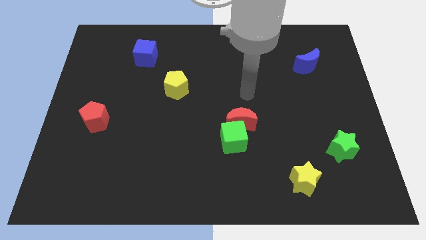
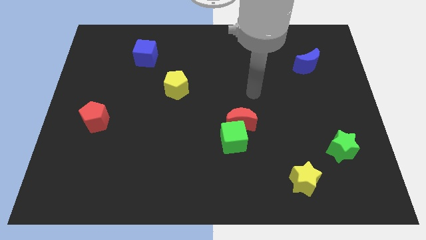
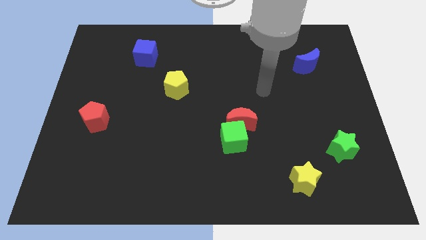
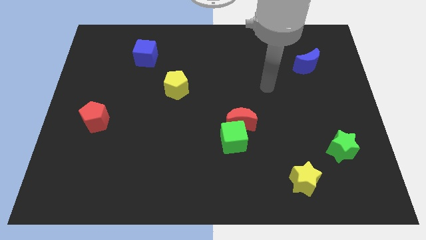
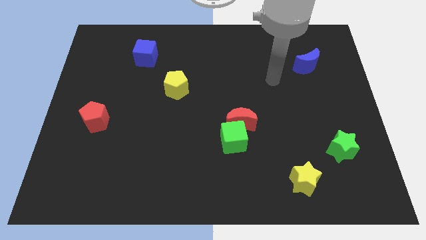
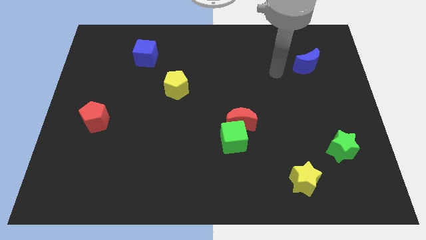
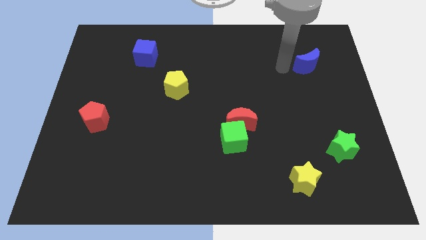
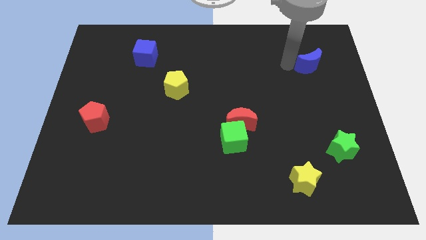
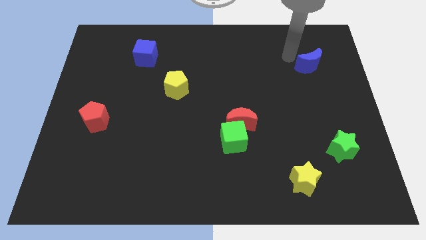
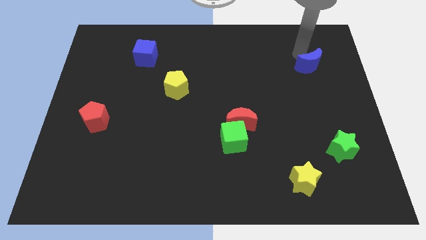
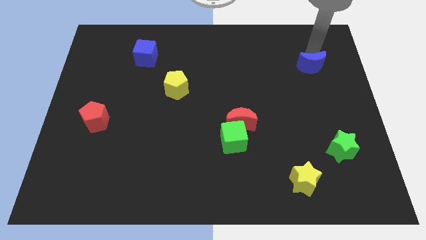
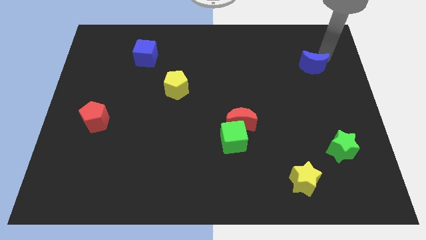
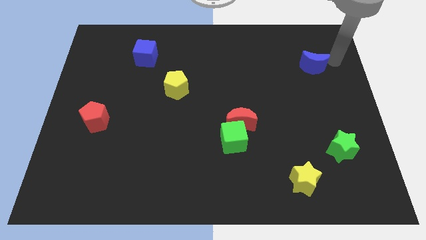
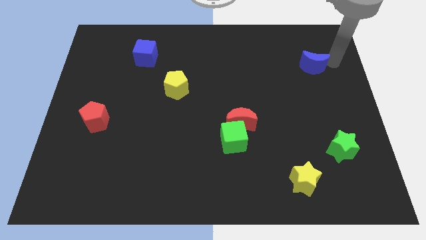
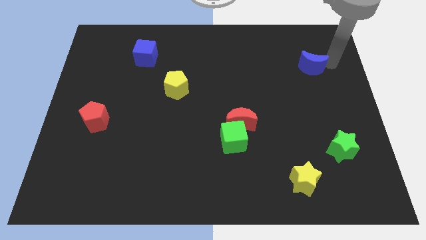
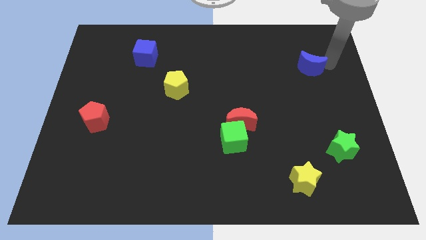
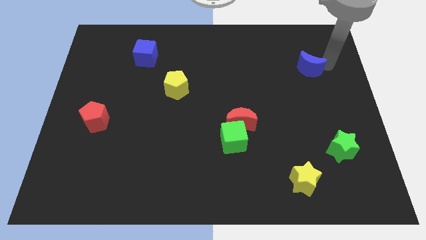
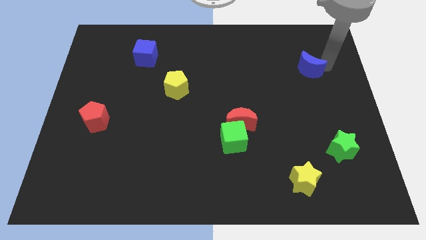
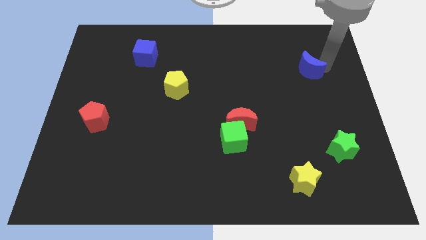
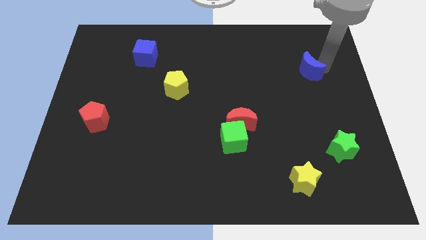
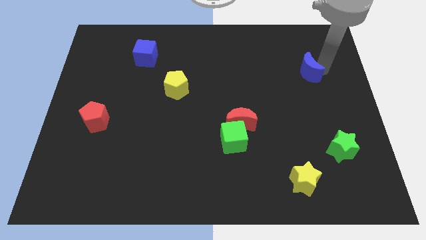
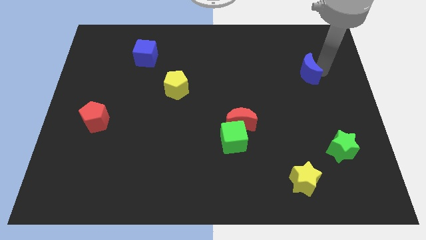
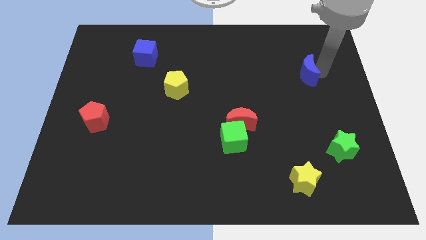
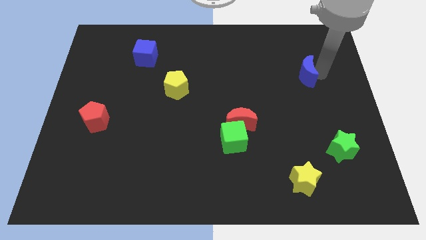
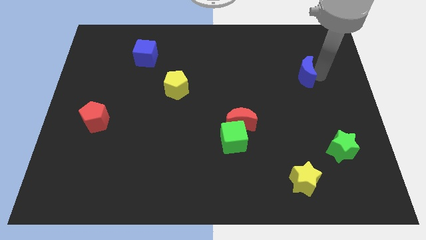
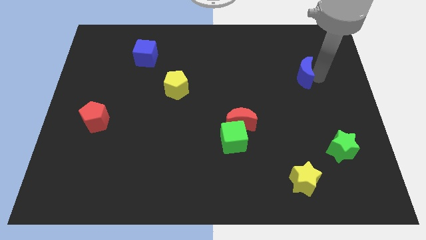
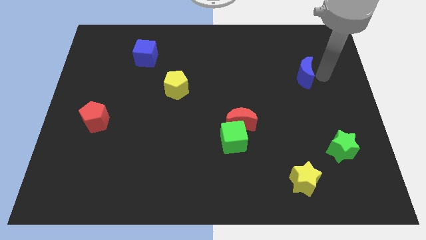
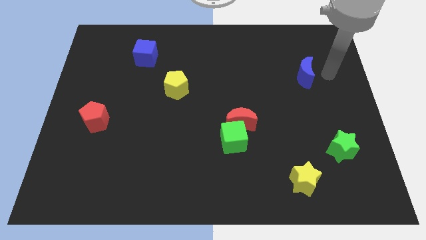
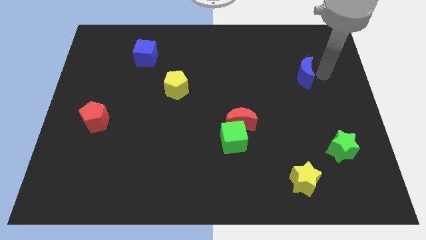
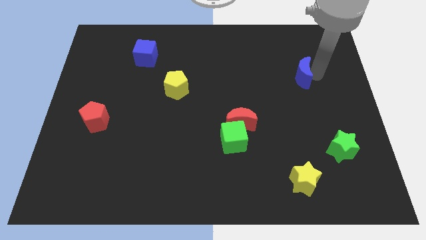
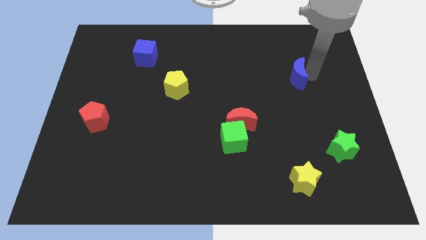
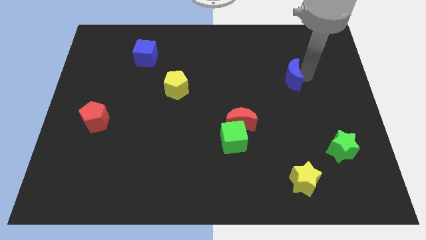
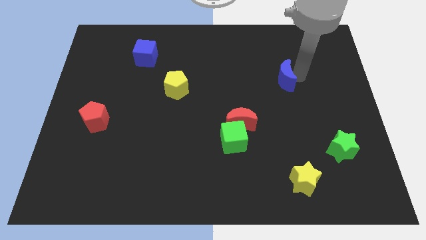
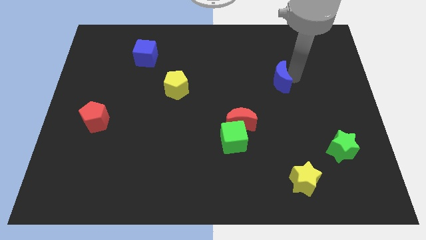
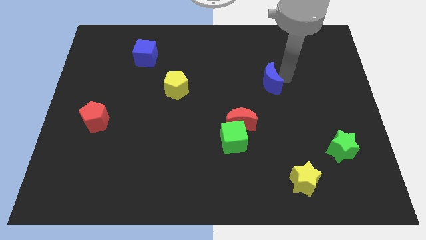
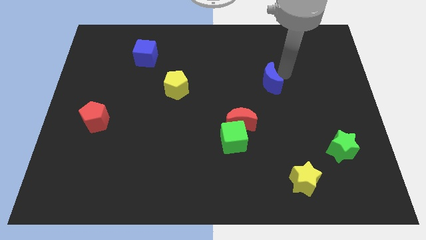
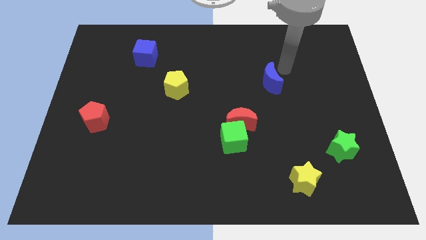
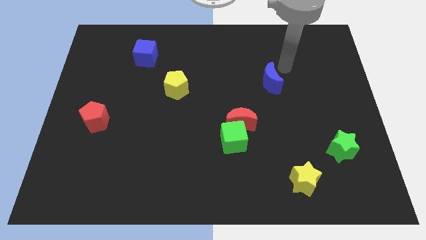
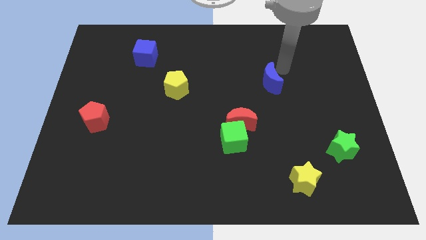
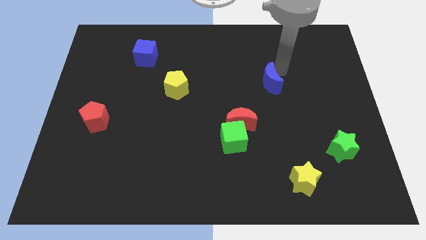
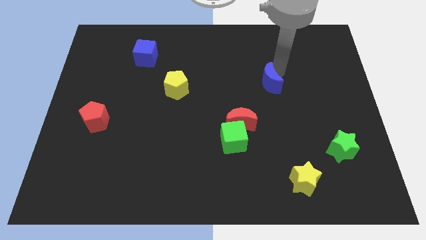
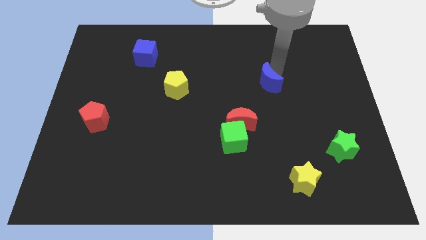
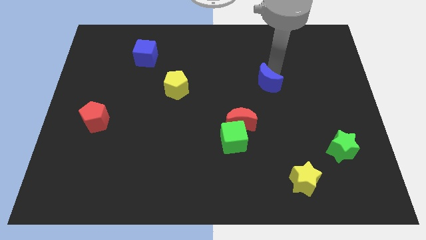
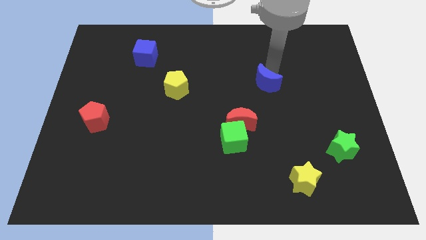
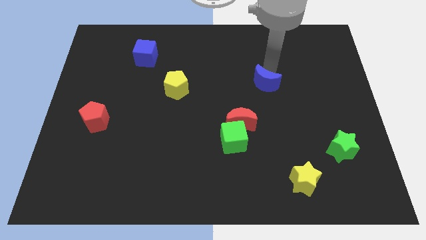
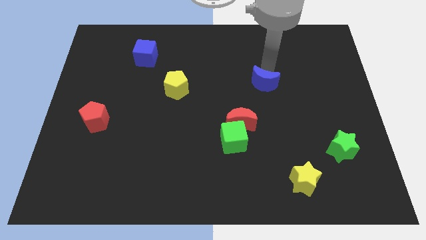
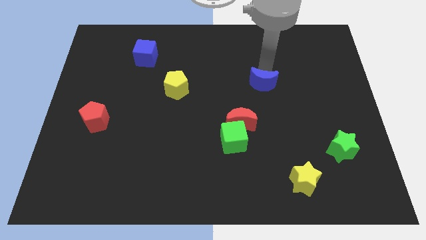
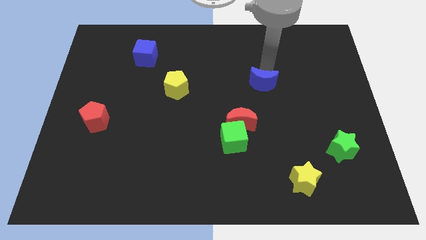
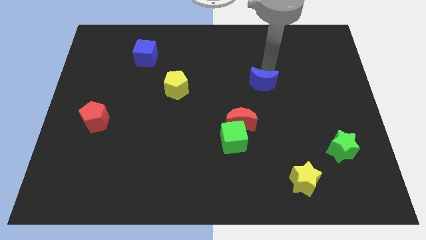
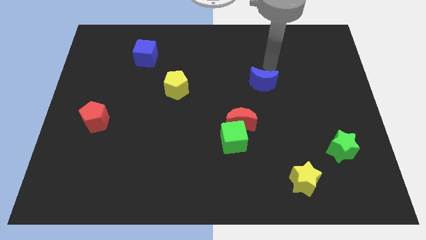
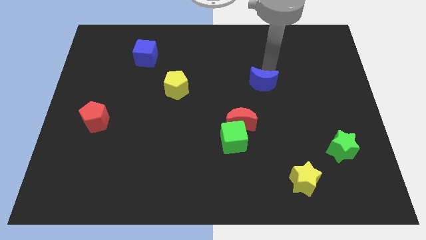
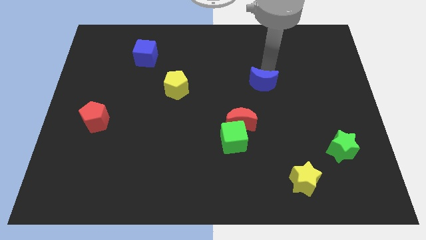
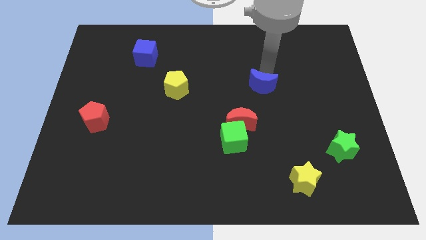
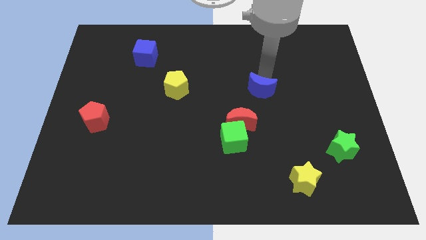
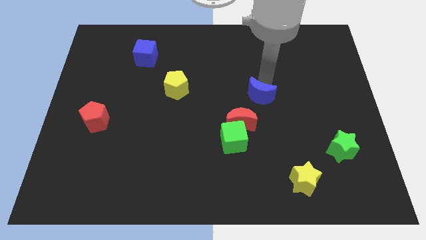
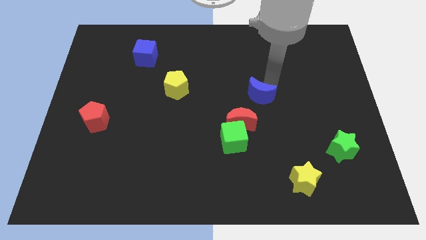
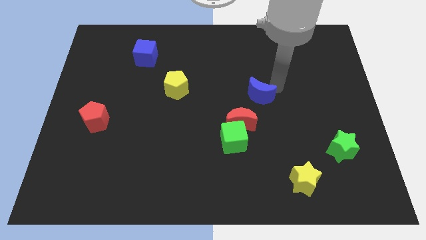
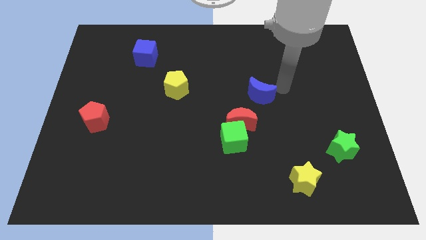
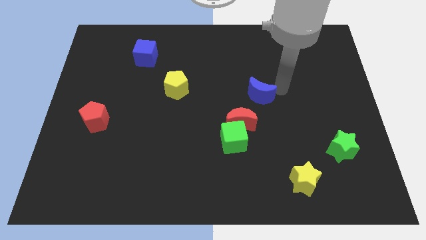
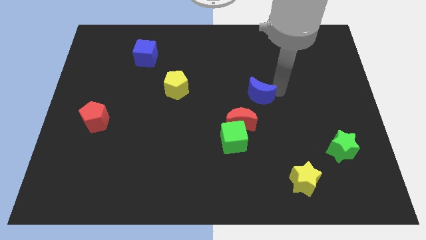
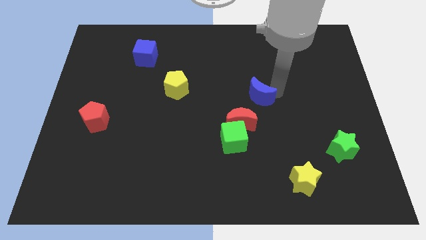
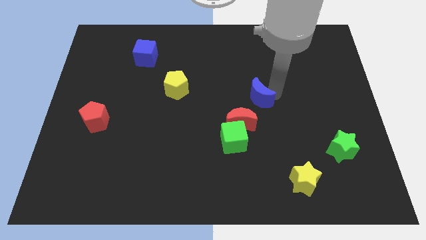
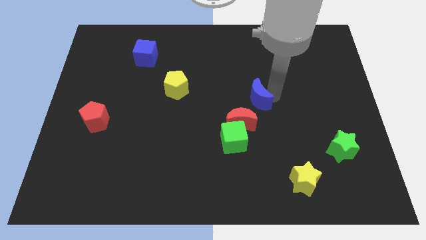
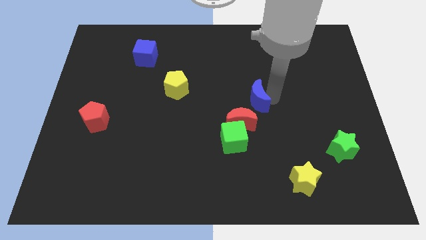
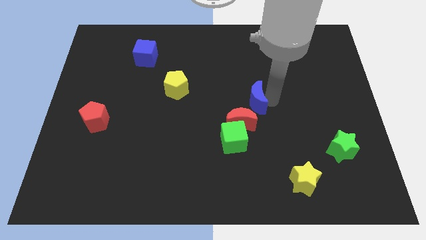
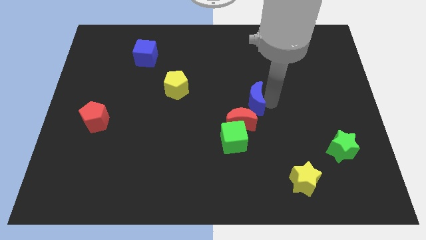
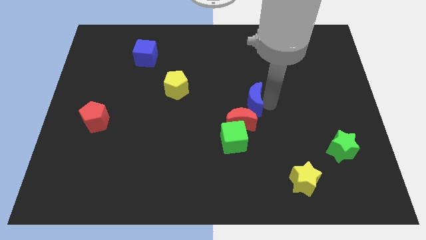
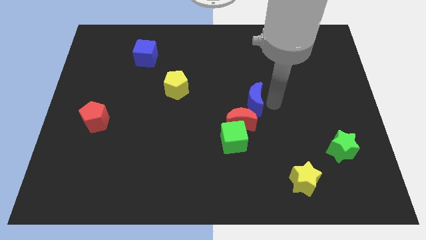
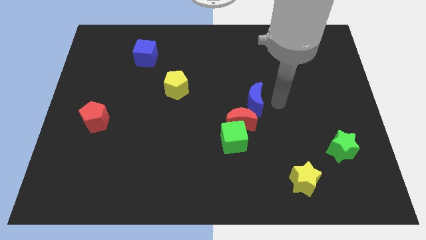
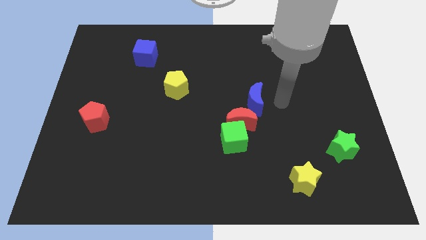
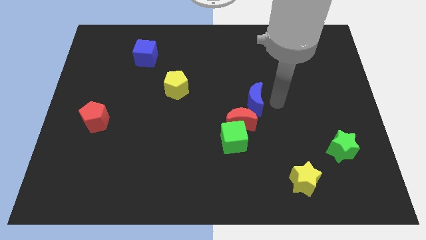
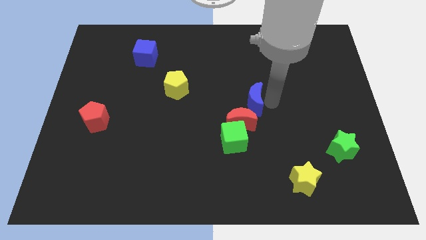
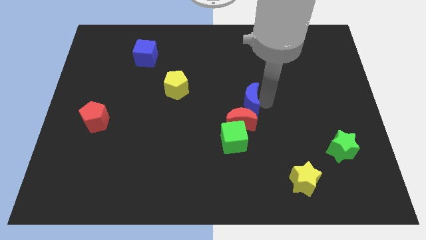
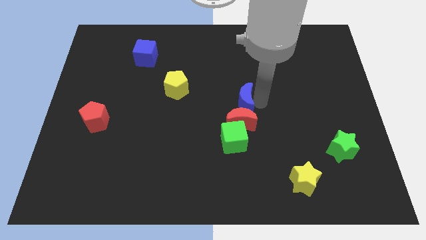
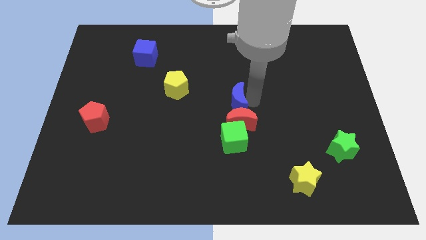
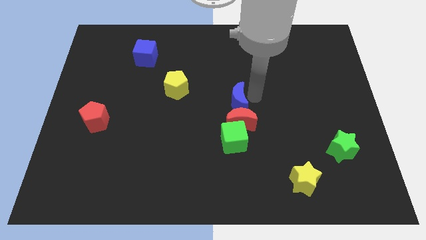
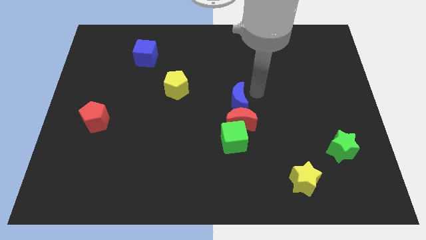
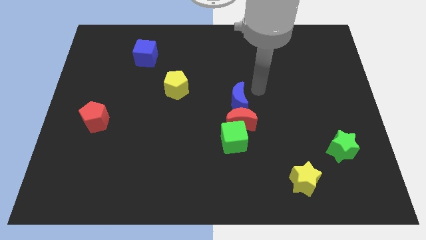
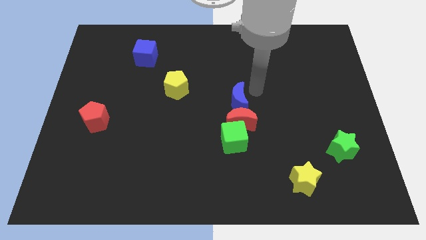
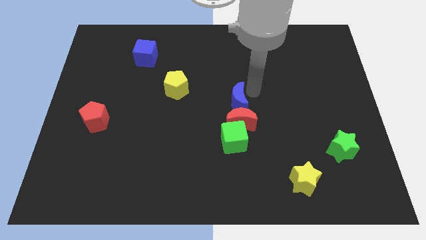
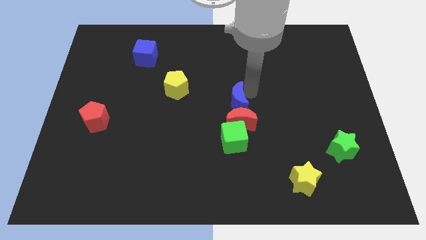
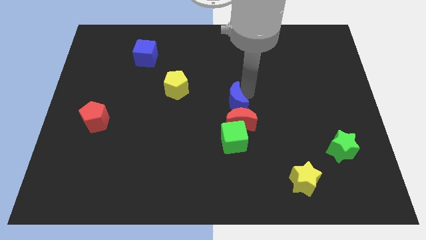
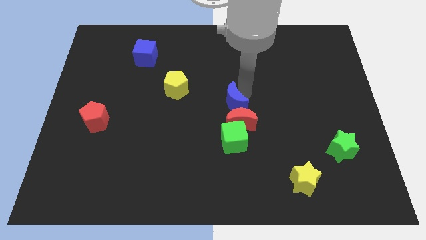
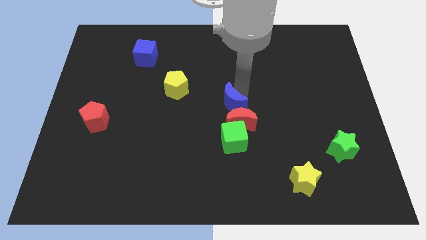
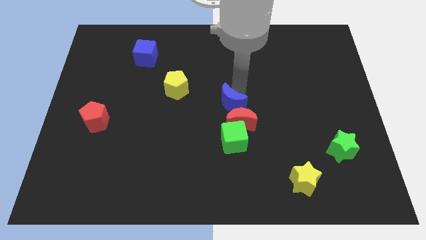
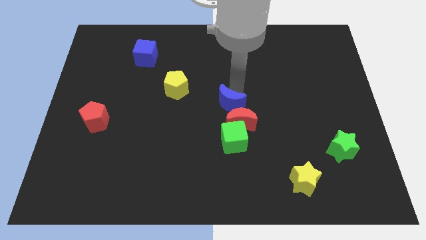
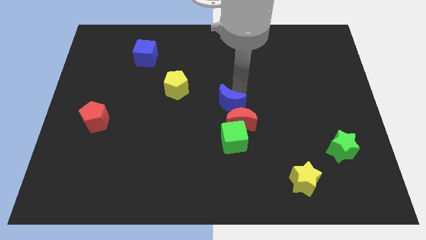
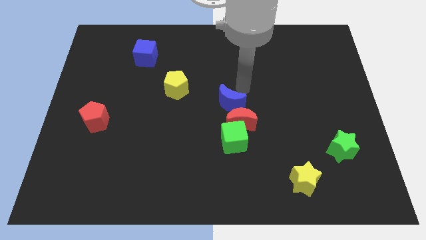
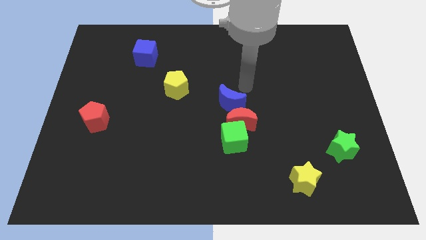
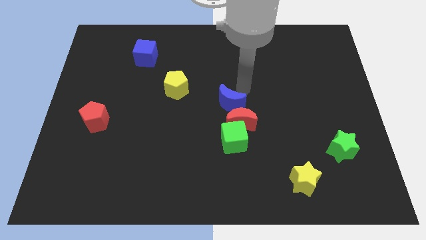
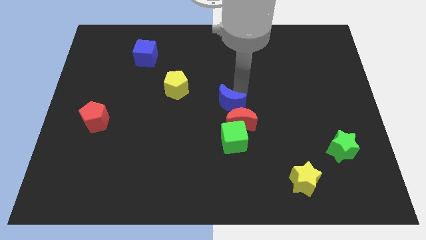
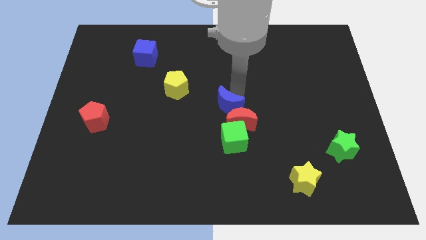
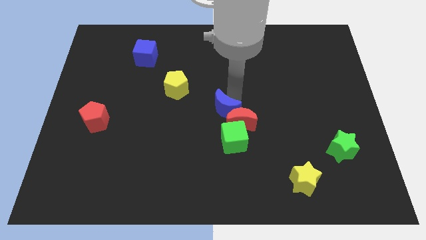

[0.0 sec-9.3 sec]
slide the blue moon left of the red moon
